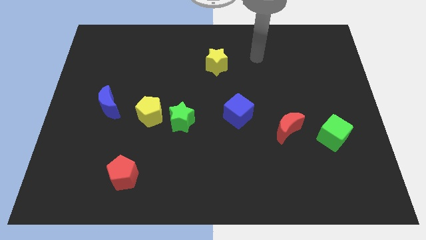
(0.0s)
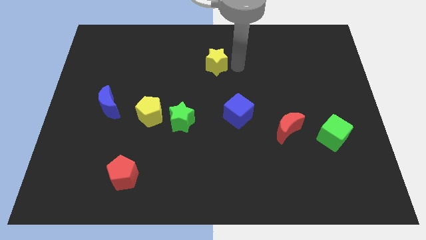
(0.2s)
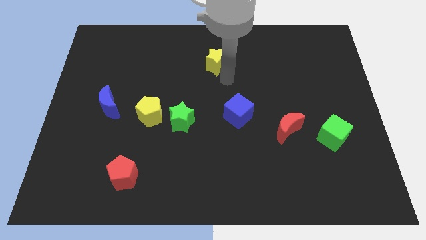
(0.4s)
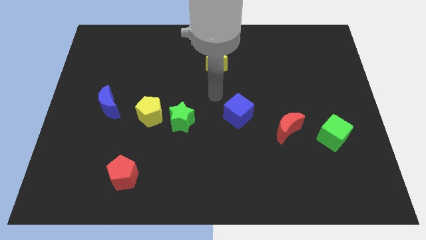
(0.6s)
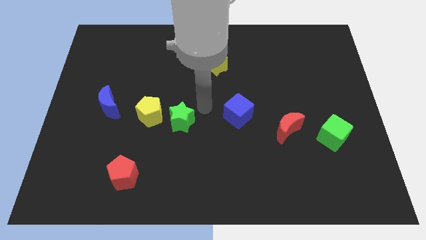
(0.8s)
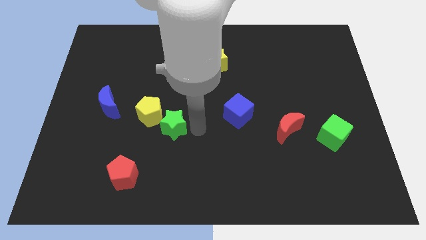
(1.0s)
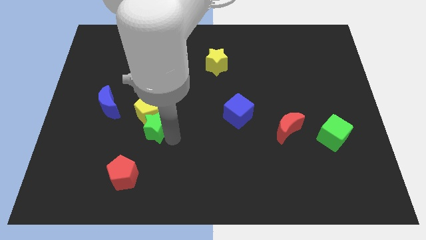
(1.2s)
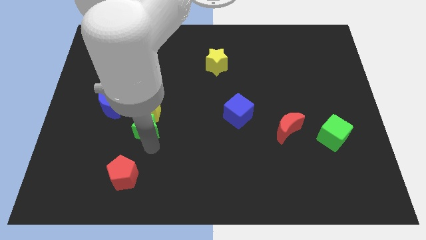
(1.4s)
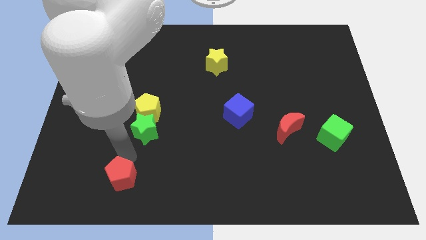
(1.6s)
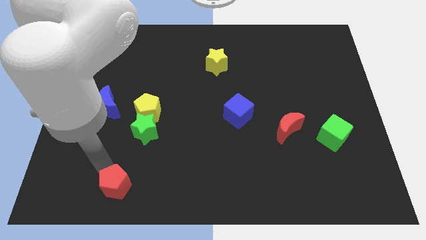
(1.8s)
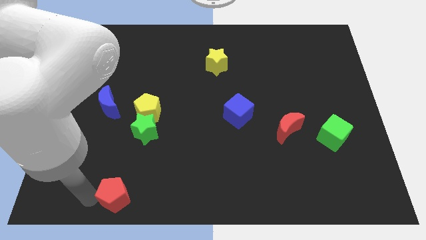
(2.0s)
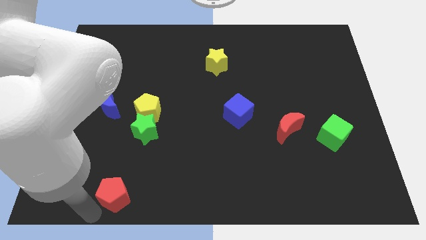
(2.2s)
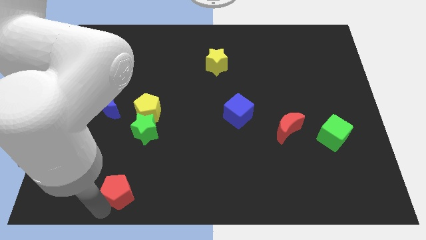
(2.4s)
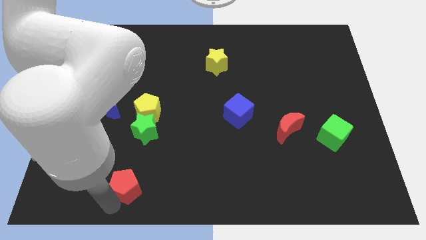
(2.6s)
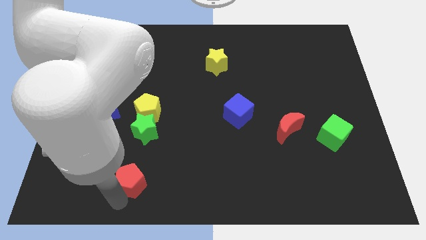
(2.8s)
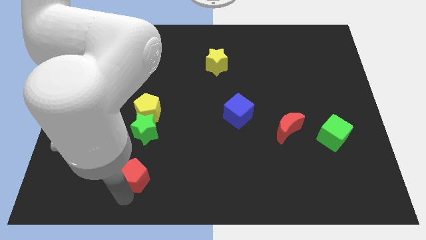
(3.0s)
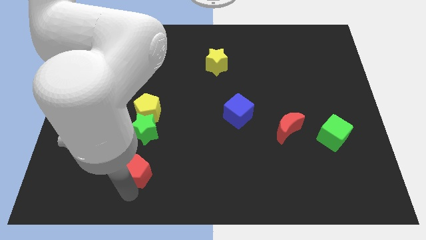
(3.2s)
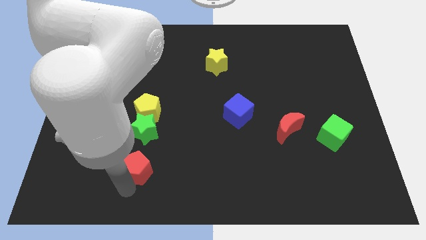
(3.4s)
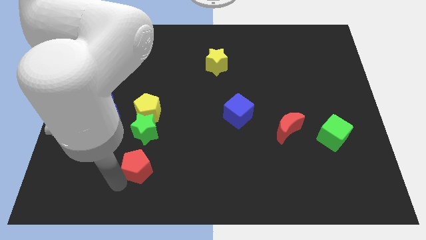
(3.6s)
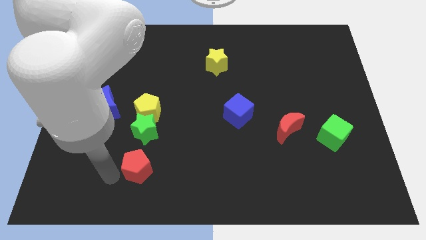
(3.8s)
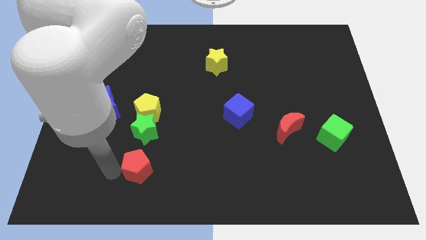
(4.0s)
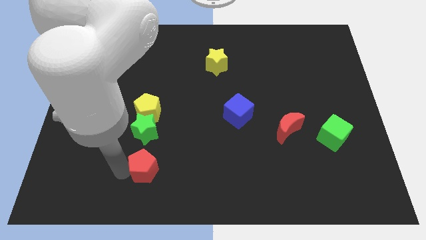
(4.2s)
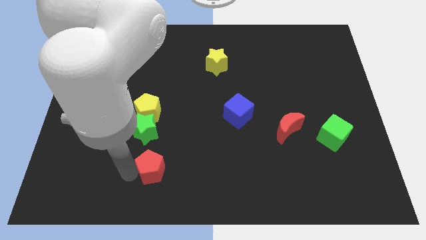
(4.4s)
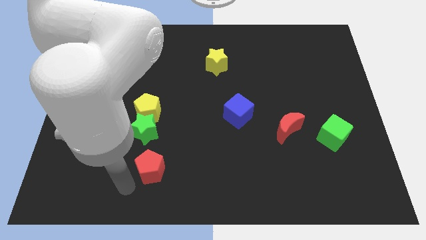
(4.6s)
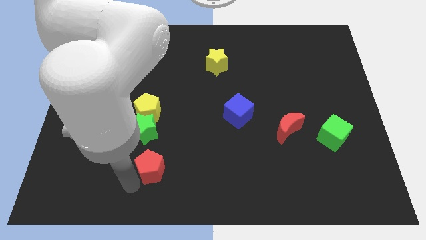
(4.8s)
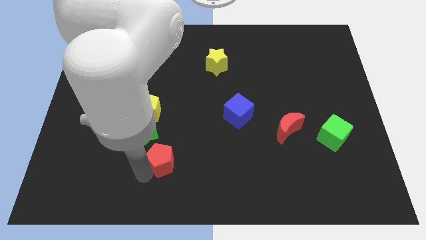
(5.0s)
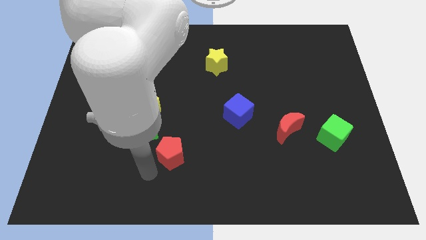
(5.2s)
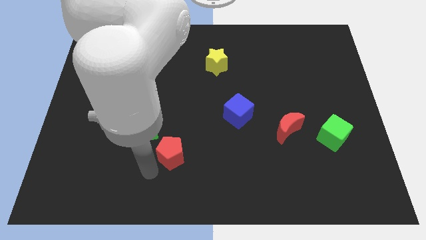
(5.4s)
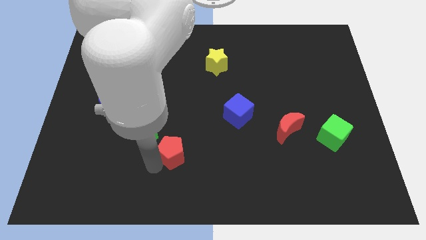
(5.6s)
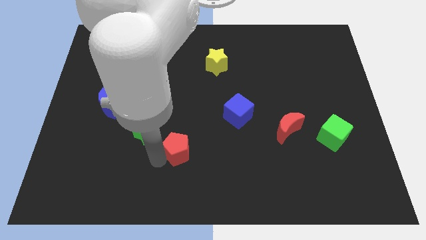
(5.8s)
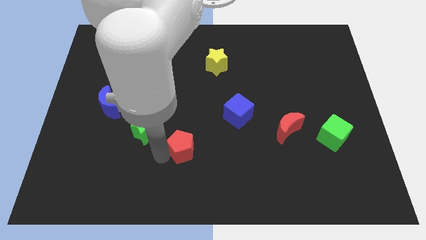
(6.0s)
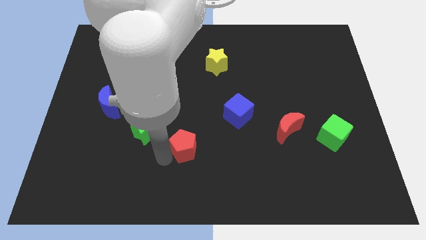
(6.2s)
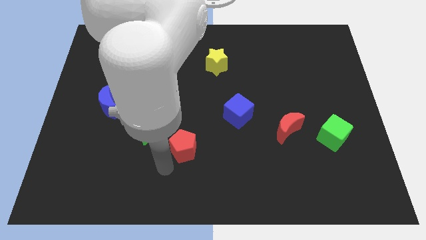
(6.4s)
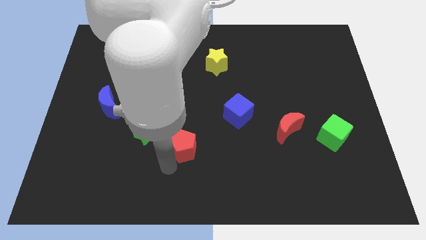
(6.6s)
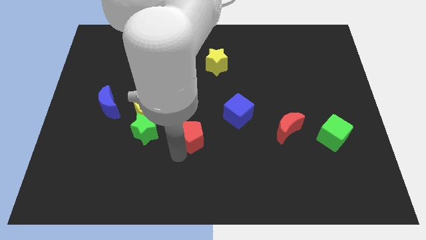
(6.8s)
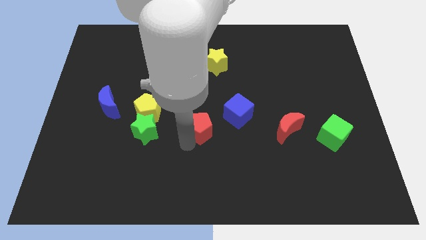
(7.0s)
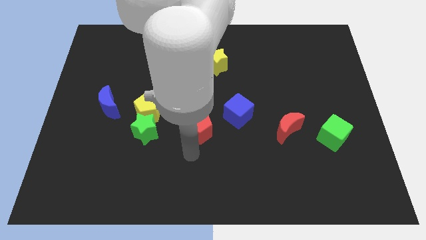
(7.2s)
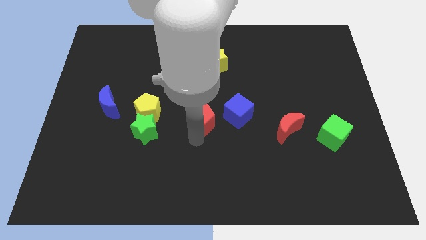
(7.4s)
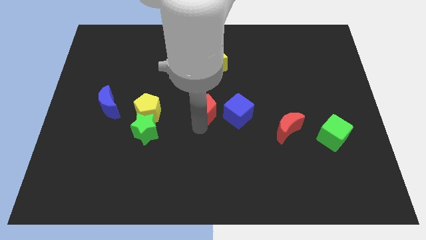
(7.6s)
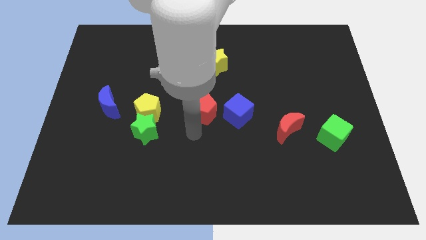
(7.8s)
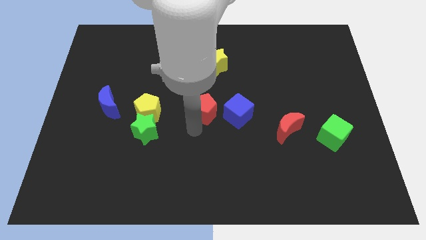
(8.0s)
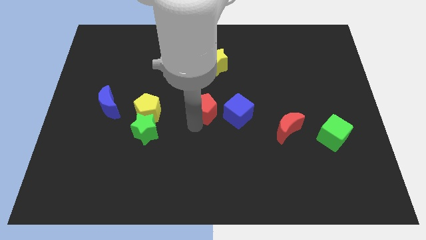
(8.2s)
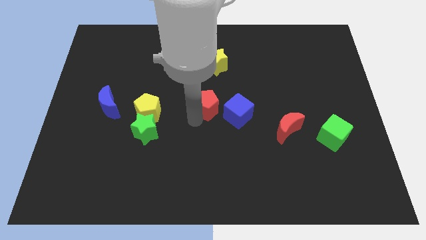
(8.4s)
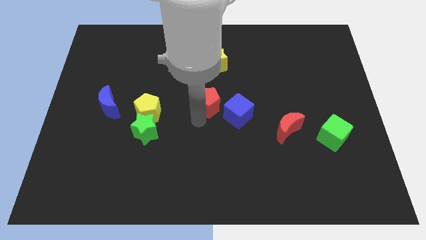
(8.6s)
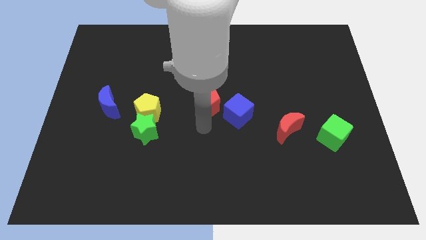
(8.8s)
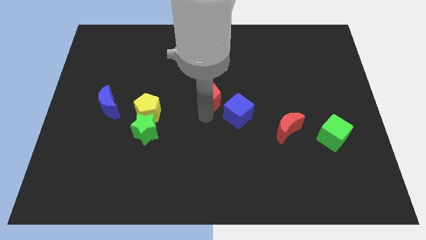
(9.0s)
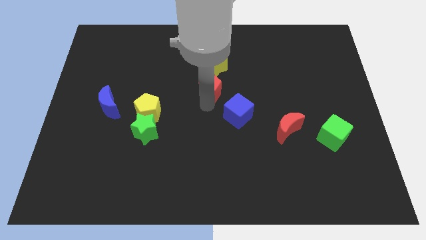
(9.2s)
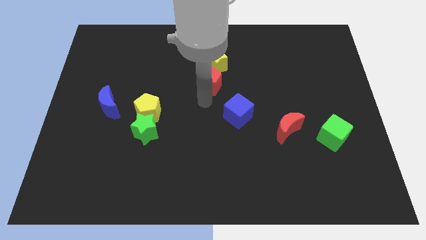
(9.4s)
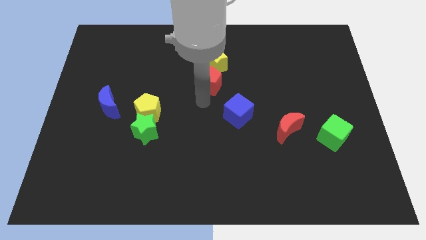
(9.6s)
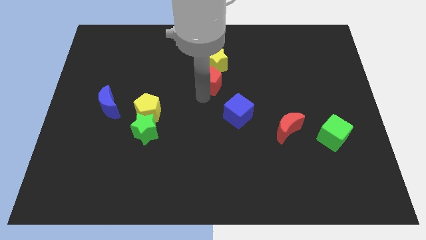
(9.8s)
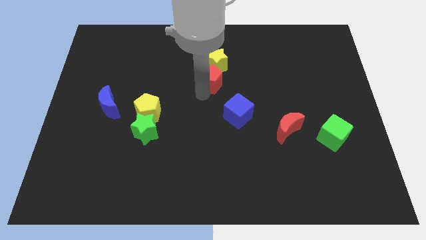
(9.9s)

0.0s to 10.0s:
move the red pentagon close to the yellow star

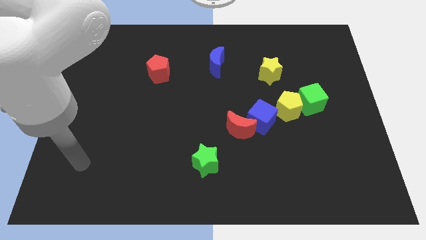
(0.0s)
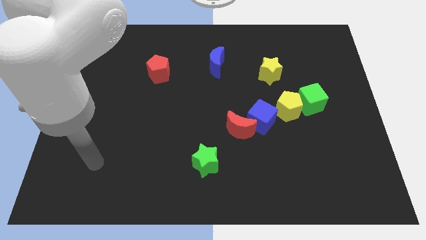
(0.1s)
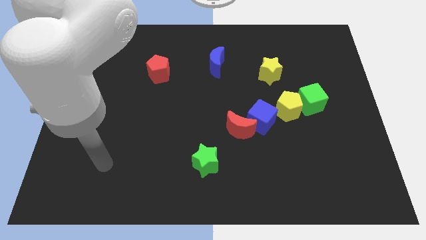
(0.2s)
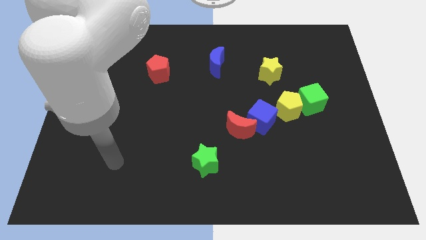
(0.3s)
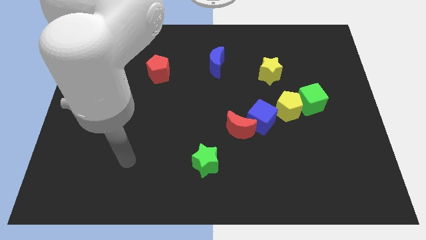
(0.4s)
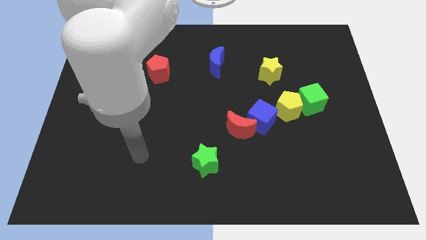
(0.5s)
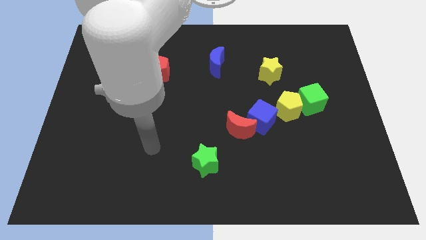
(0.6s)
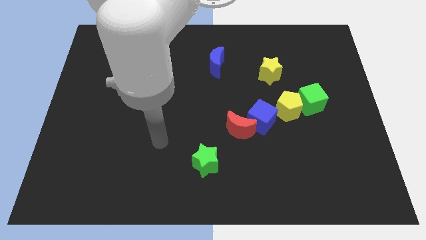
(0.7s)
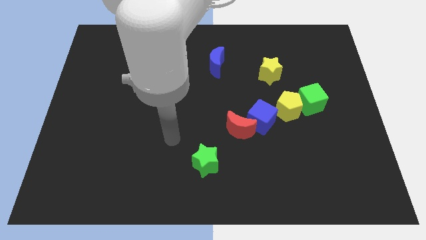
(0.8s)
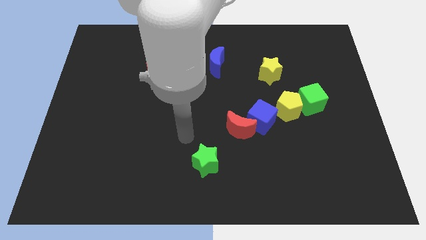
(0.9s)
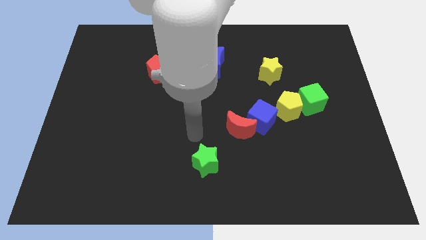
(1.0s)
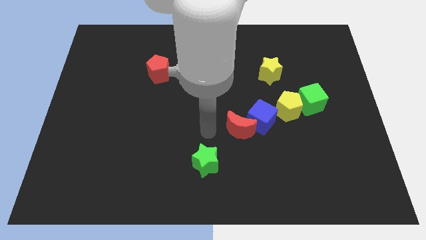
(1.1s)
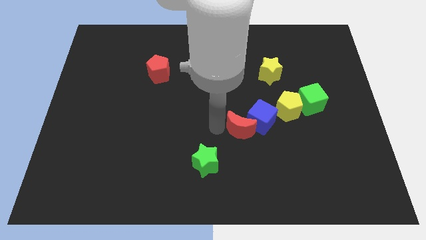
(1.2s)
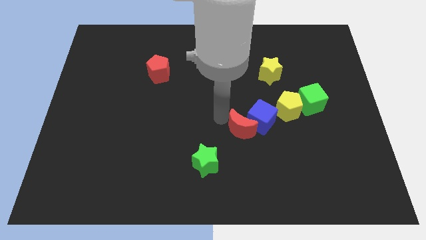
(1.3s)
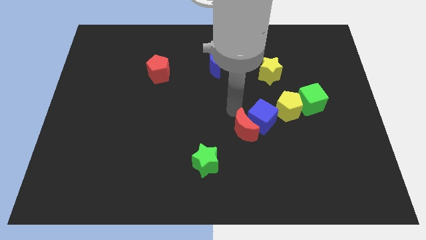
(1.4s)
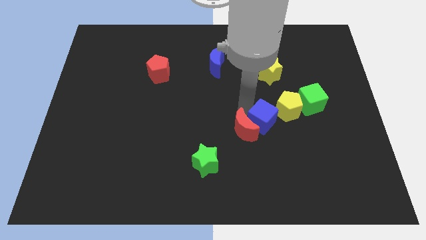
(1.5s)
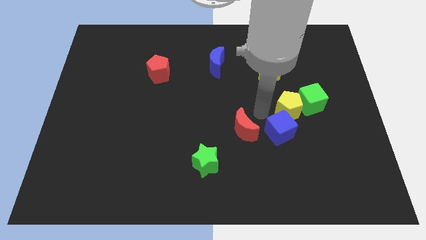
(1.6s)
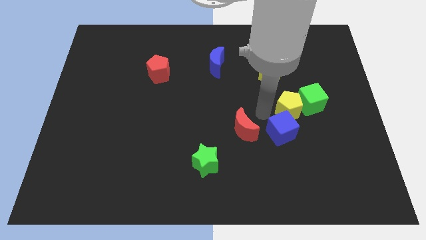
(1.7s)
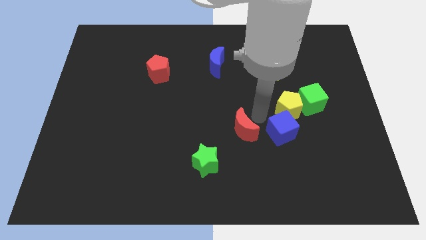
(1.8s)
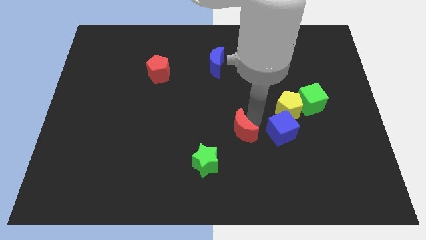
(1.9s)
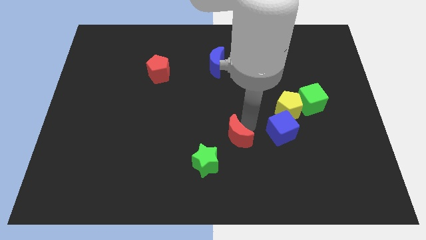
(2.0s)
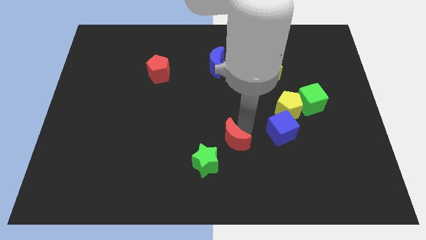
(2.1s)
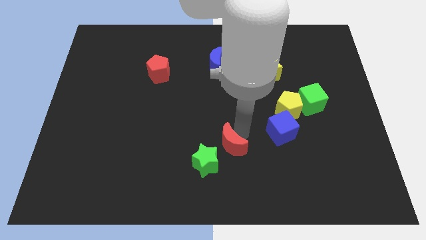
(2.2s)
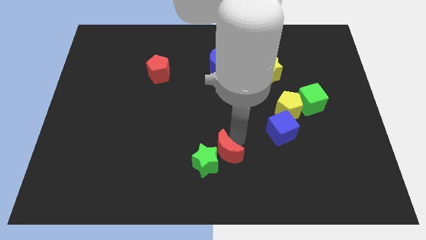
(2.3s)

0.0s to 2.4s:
push the red moon next to the green star
